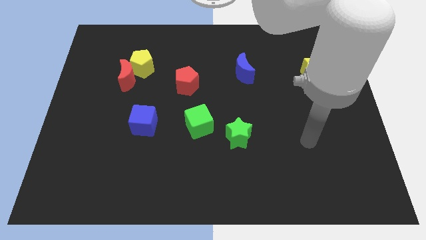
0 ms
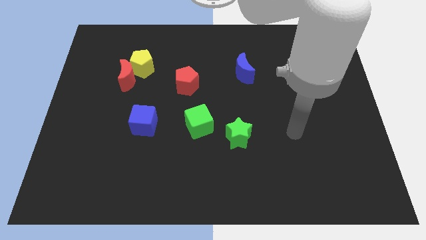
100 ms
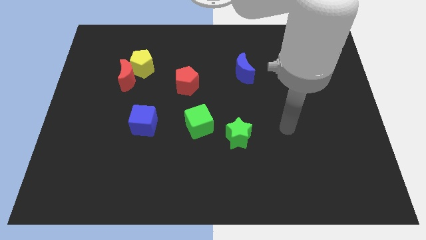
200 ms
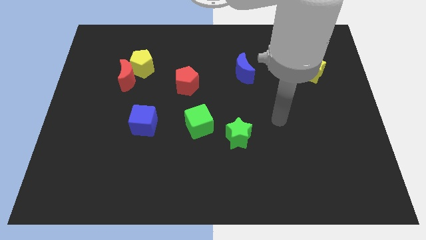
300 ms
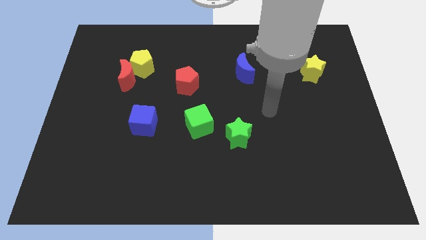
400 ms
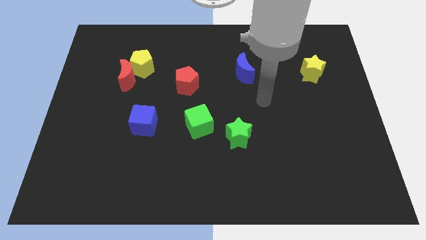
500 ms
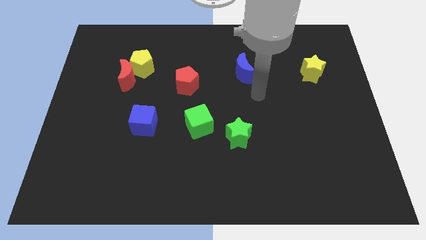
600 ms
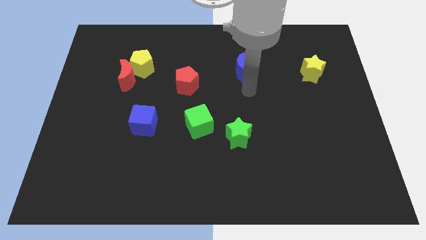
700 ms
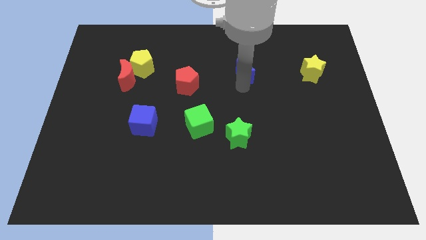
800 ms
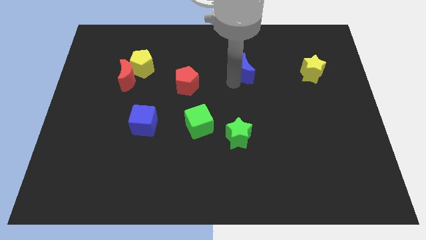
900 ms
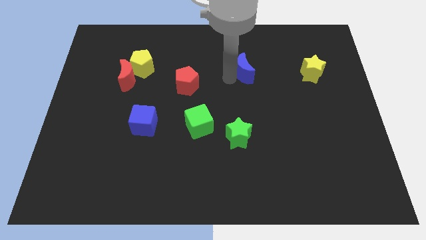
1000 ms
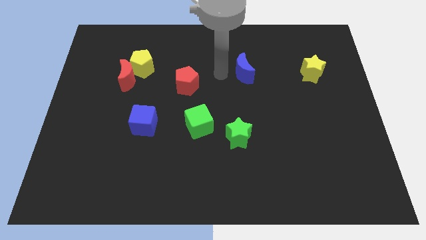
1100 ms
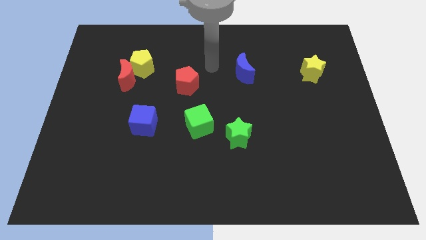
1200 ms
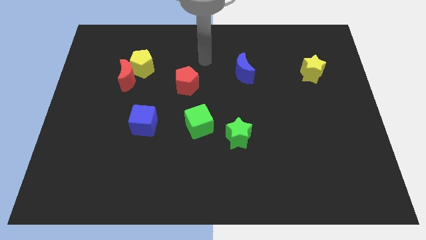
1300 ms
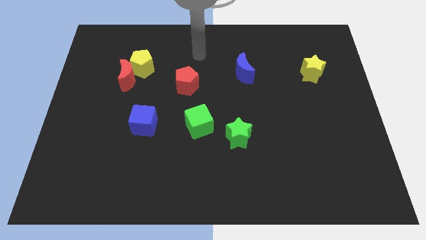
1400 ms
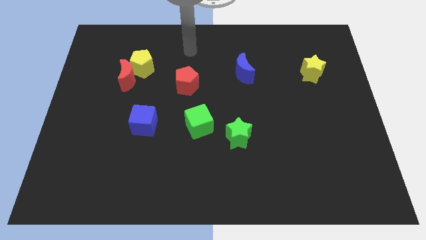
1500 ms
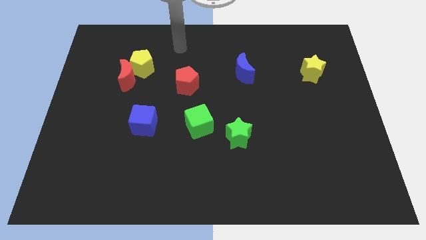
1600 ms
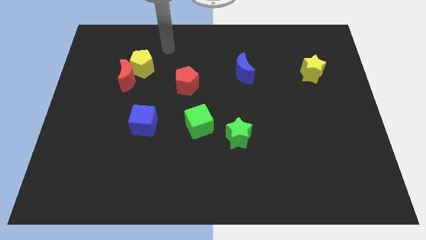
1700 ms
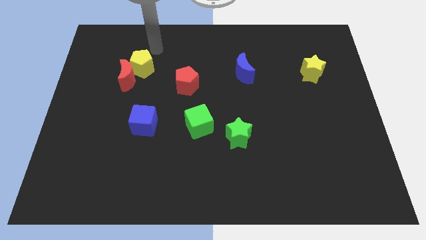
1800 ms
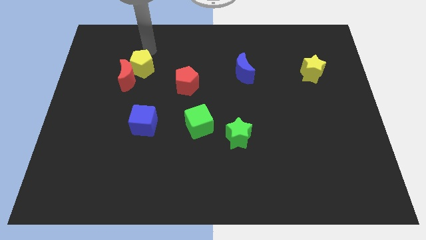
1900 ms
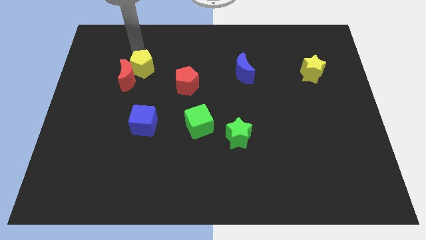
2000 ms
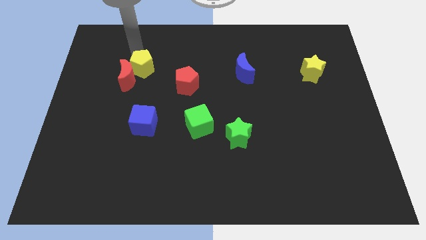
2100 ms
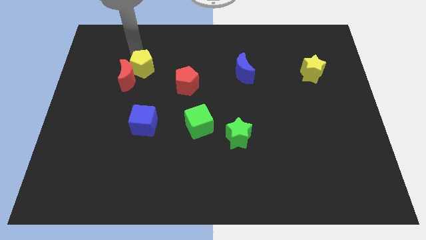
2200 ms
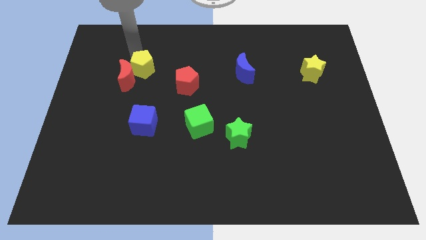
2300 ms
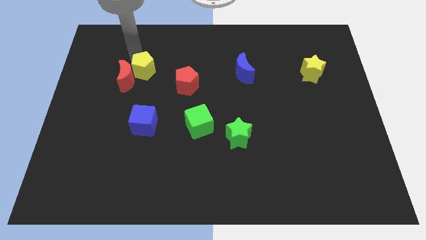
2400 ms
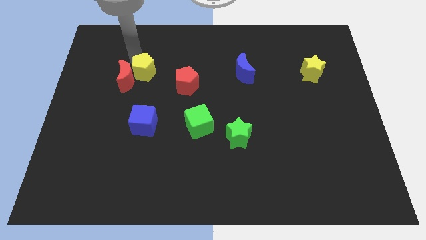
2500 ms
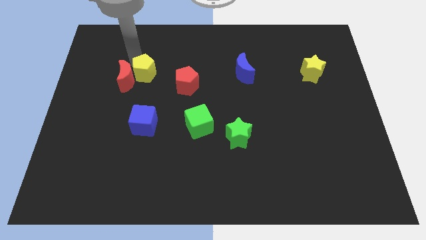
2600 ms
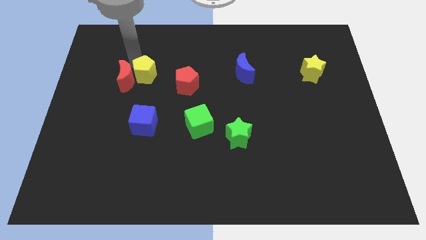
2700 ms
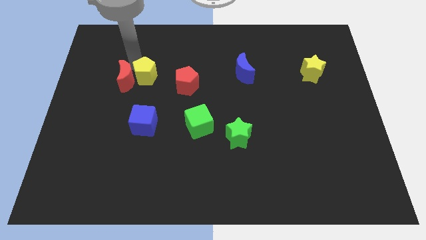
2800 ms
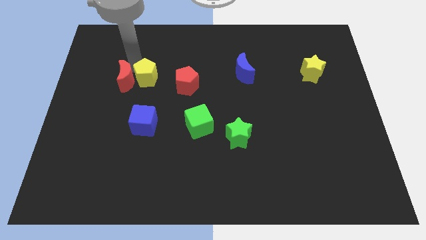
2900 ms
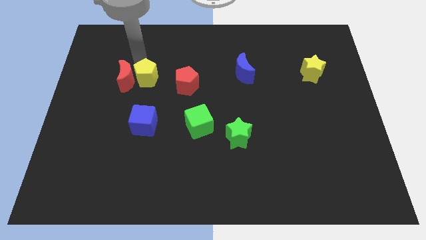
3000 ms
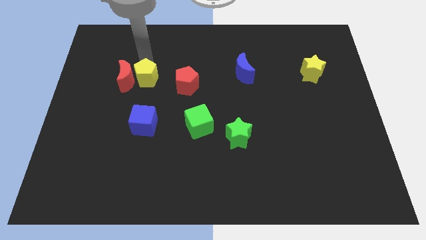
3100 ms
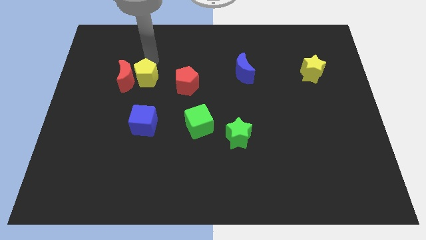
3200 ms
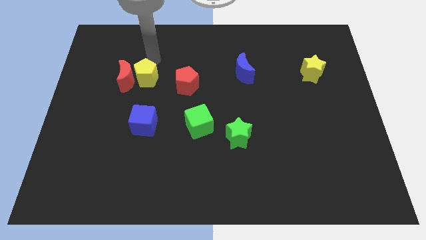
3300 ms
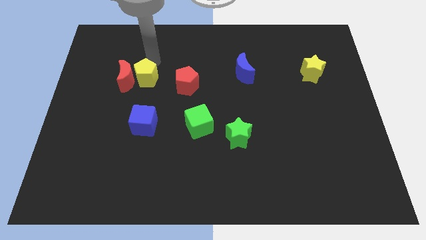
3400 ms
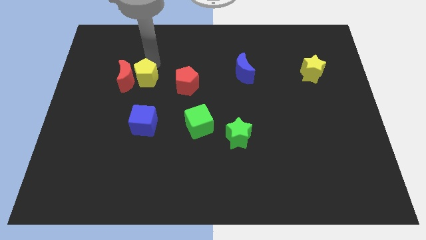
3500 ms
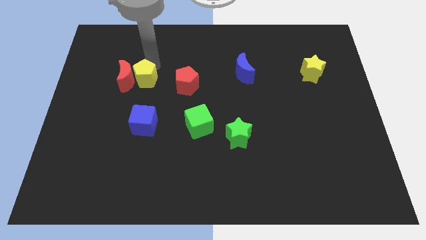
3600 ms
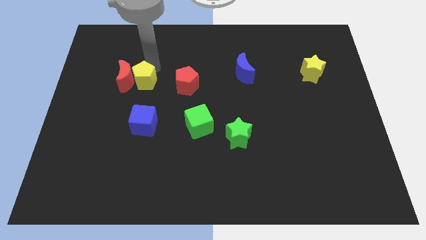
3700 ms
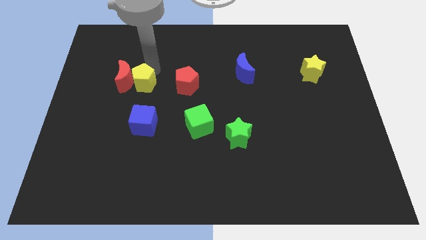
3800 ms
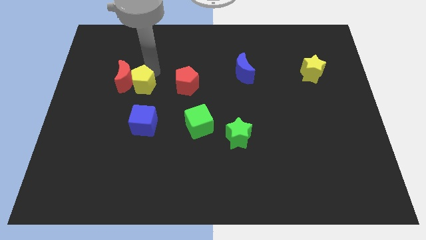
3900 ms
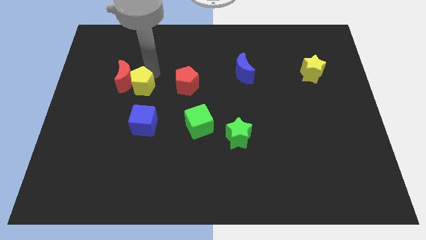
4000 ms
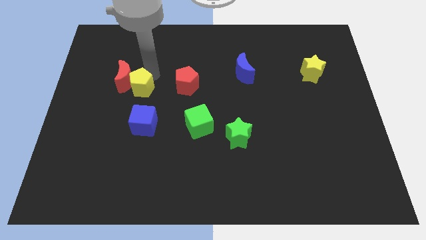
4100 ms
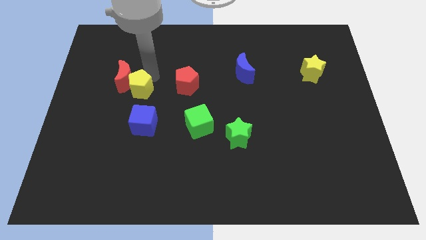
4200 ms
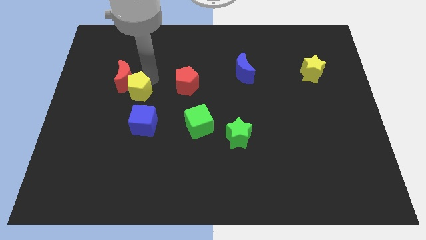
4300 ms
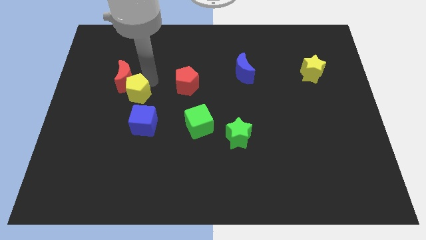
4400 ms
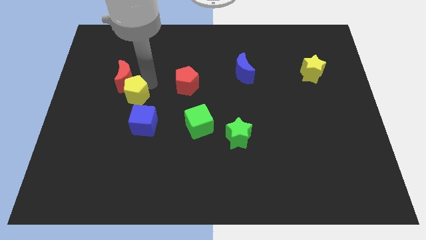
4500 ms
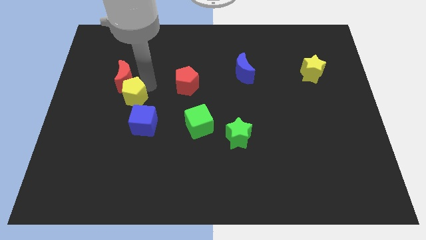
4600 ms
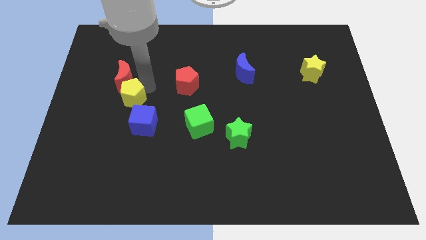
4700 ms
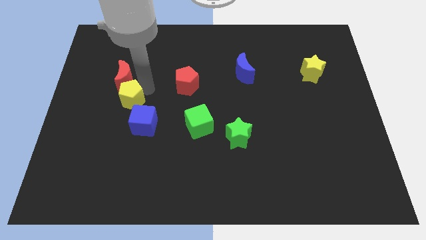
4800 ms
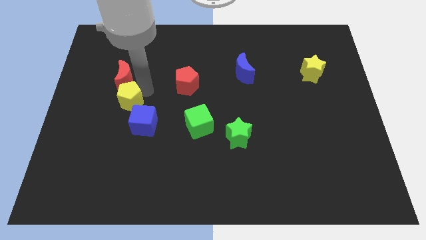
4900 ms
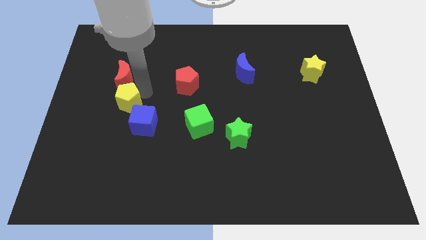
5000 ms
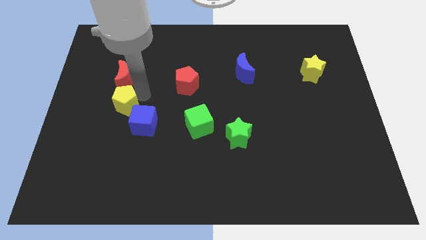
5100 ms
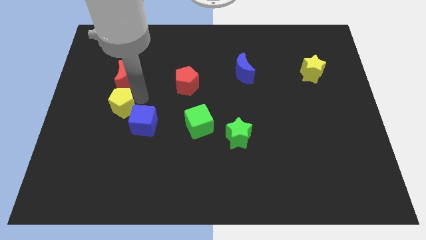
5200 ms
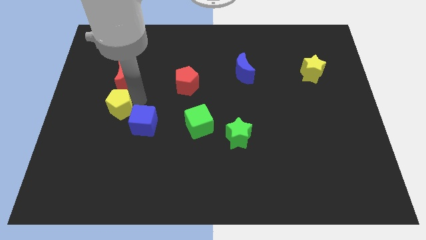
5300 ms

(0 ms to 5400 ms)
push the yellow pentagon left of the blue cube
